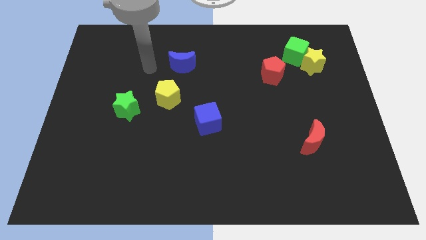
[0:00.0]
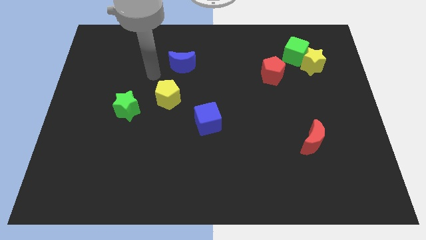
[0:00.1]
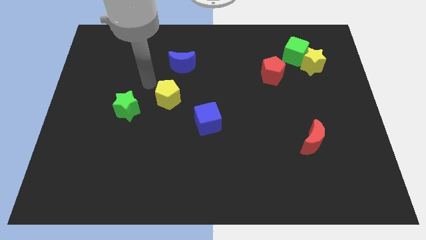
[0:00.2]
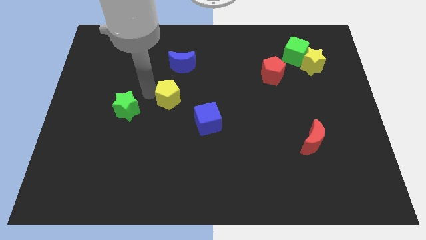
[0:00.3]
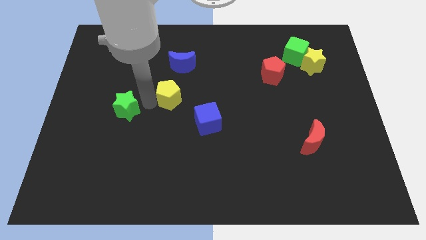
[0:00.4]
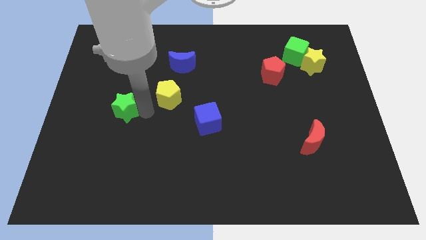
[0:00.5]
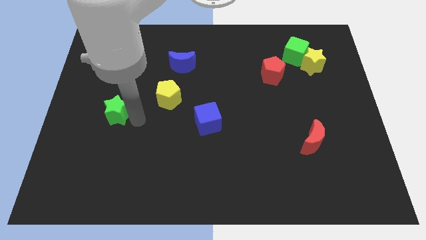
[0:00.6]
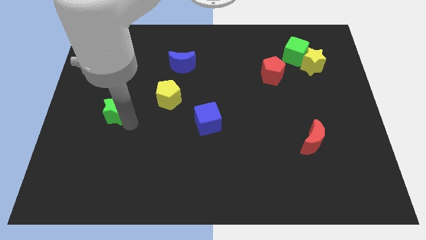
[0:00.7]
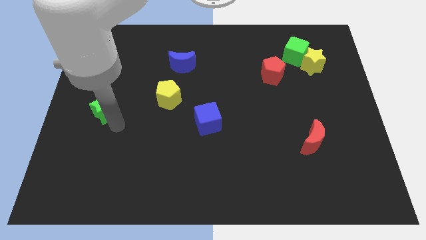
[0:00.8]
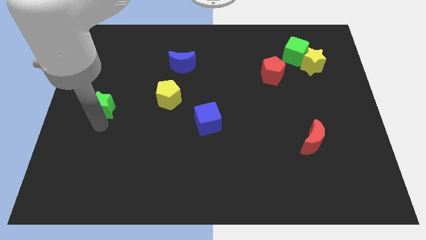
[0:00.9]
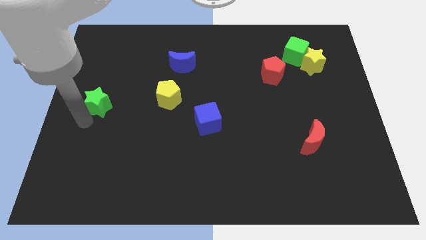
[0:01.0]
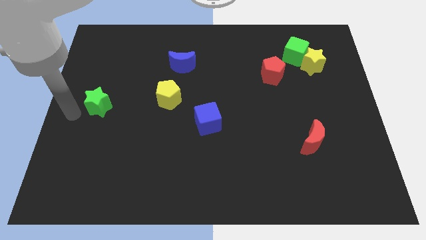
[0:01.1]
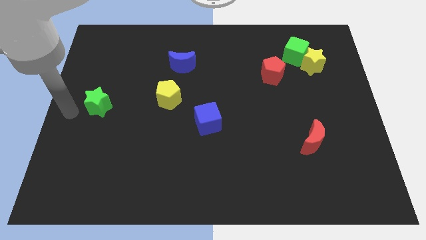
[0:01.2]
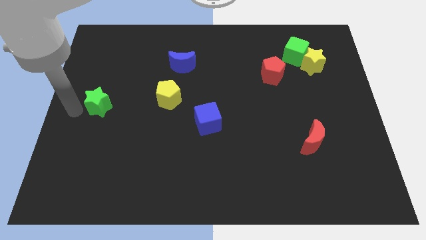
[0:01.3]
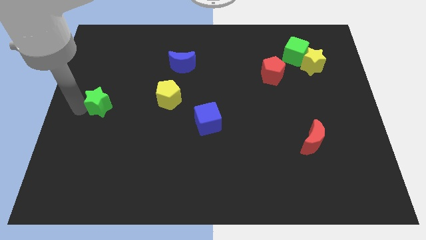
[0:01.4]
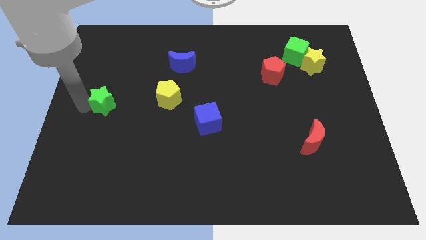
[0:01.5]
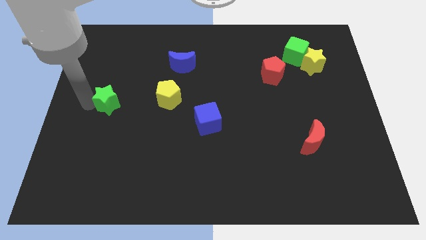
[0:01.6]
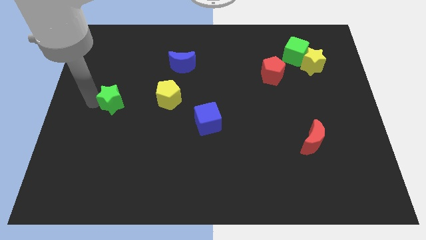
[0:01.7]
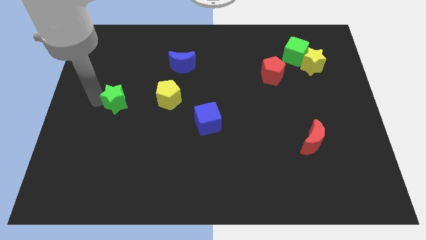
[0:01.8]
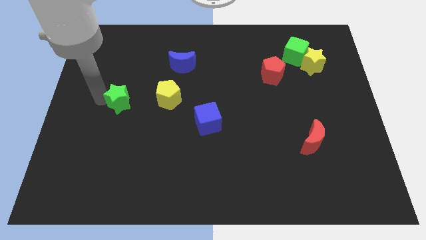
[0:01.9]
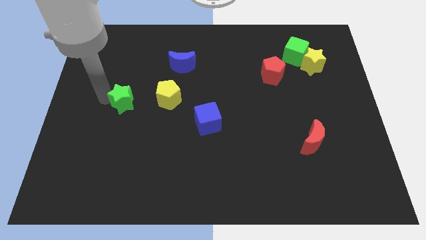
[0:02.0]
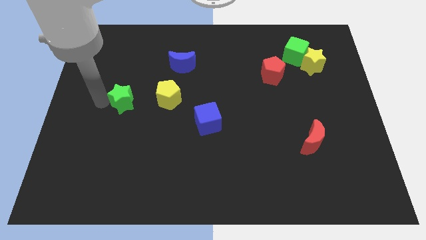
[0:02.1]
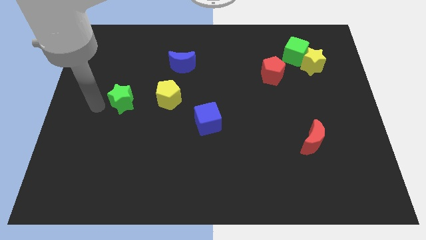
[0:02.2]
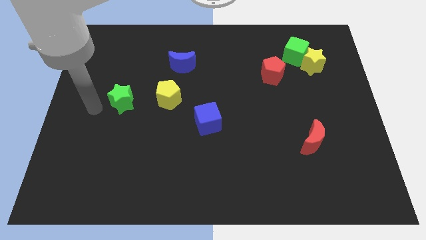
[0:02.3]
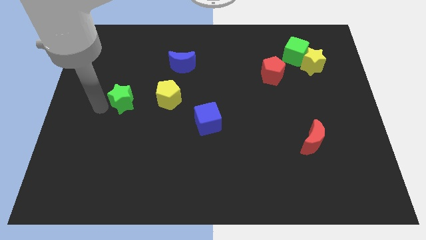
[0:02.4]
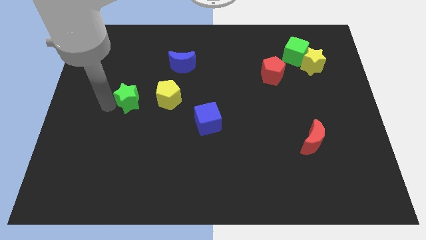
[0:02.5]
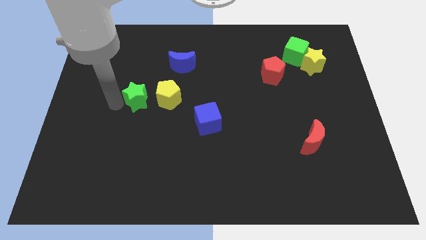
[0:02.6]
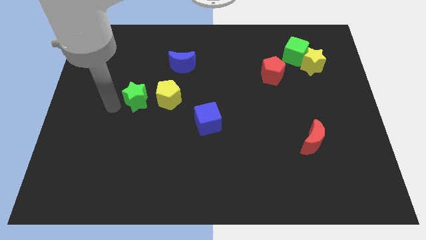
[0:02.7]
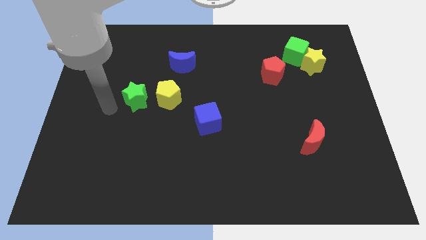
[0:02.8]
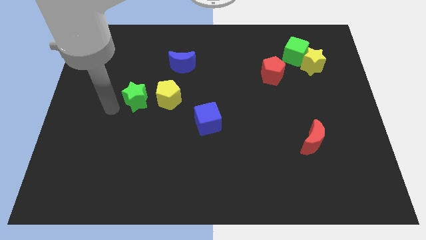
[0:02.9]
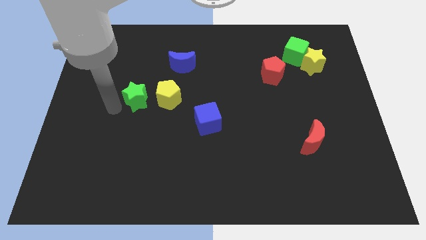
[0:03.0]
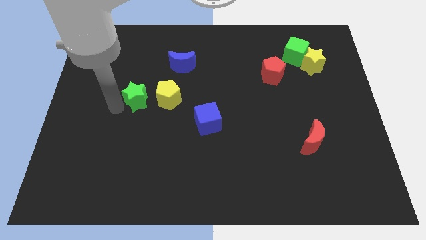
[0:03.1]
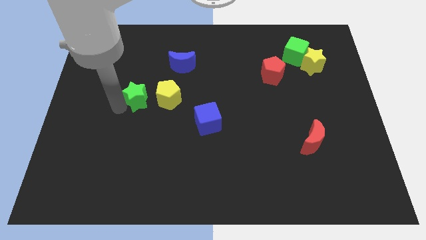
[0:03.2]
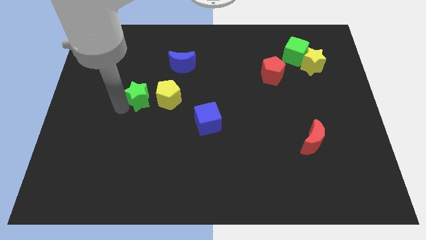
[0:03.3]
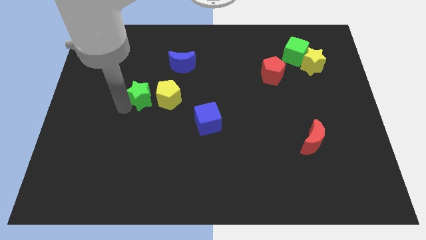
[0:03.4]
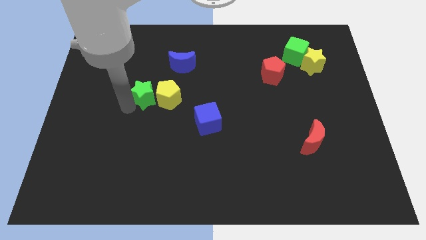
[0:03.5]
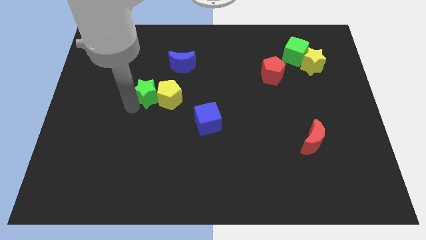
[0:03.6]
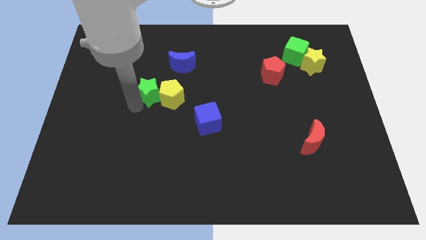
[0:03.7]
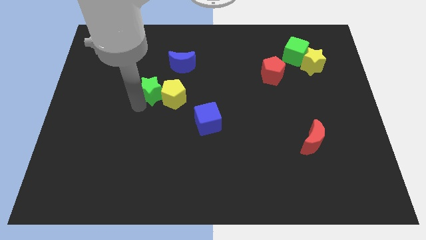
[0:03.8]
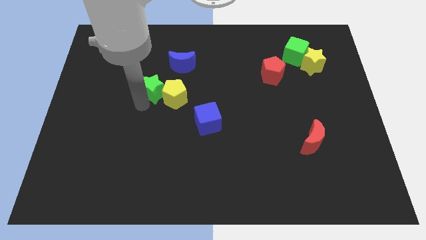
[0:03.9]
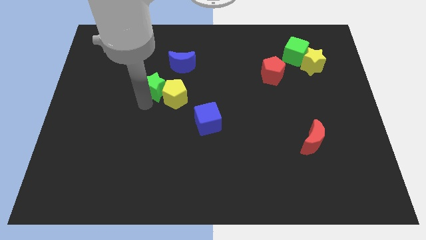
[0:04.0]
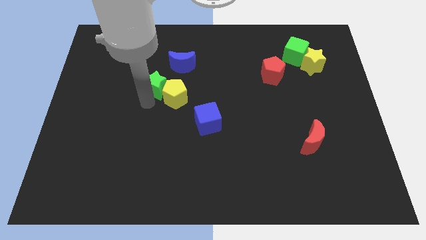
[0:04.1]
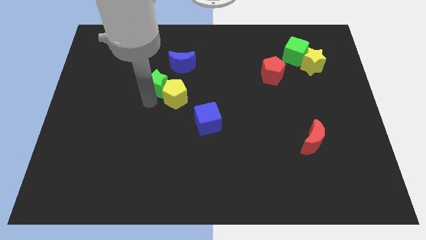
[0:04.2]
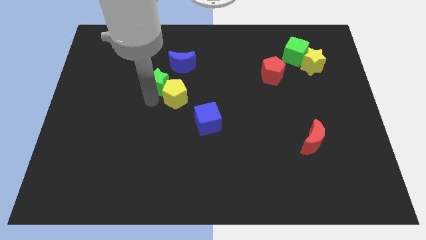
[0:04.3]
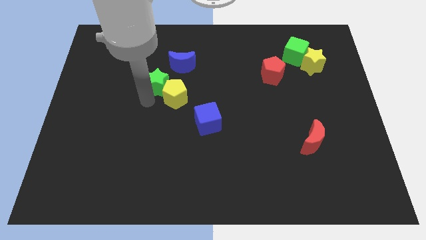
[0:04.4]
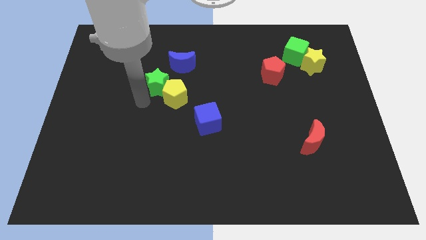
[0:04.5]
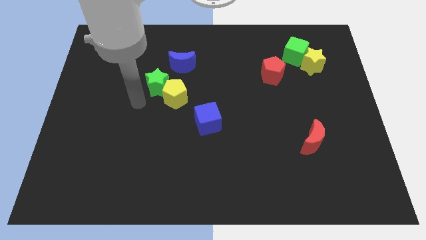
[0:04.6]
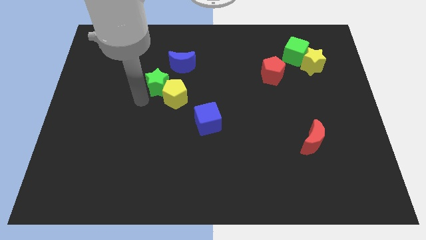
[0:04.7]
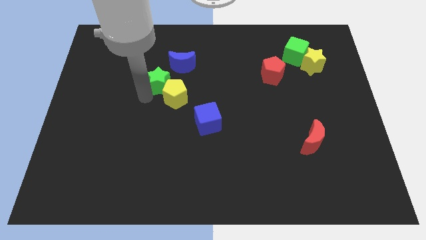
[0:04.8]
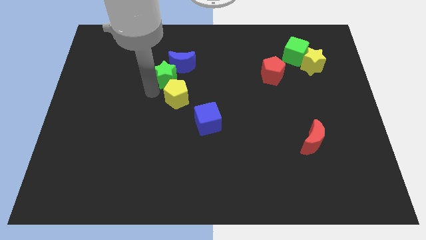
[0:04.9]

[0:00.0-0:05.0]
slide the green star towards the blue moon

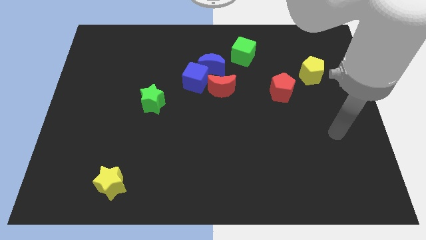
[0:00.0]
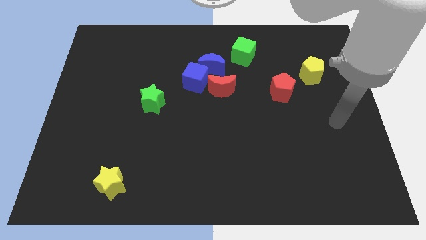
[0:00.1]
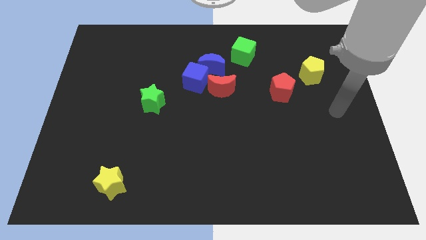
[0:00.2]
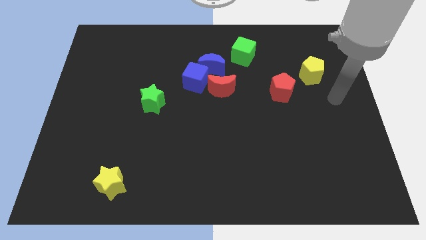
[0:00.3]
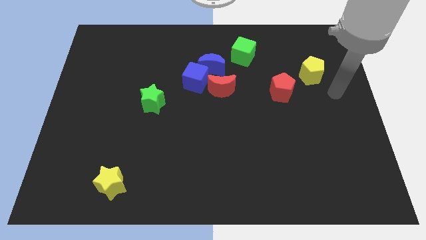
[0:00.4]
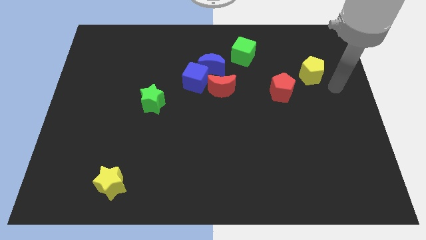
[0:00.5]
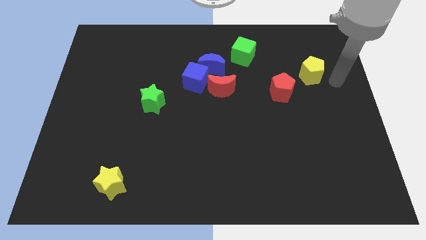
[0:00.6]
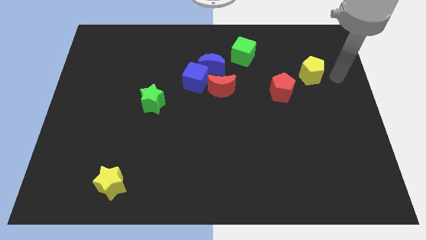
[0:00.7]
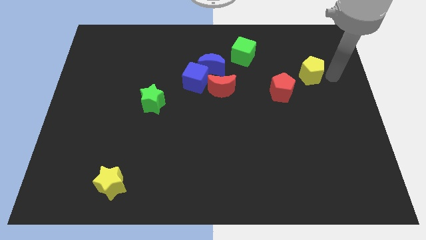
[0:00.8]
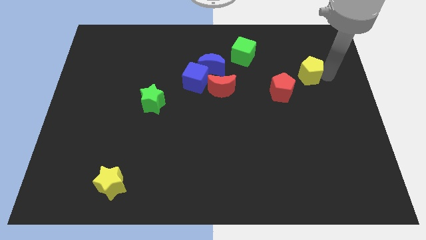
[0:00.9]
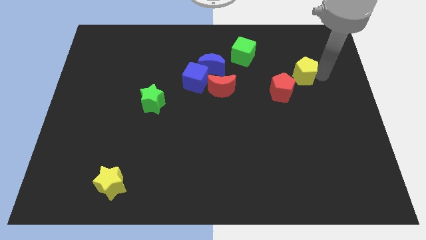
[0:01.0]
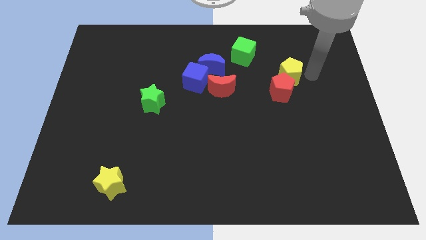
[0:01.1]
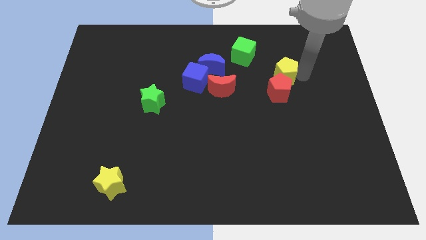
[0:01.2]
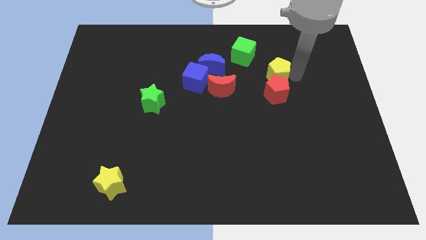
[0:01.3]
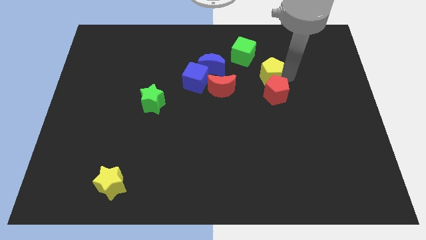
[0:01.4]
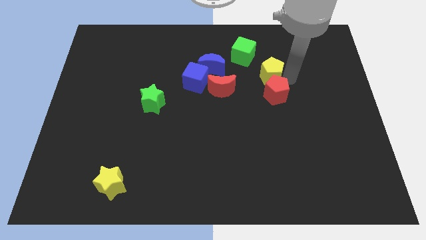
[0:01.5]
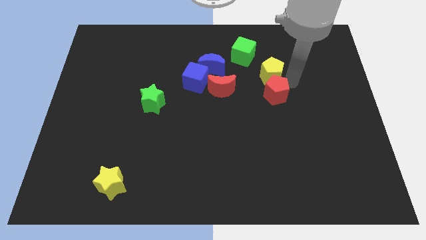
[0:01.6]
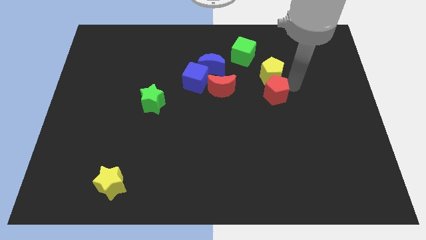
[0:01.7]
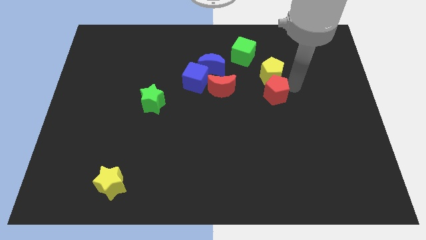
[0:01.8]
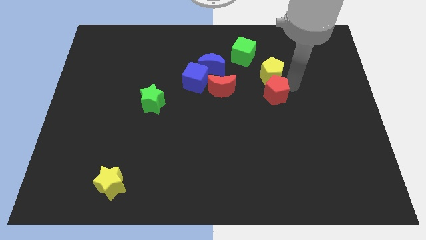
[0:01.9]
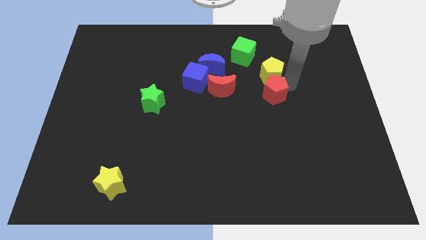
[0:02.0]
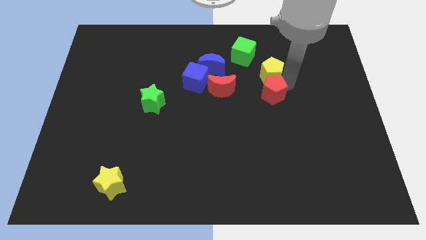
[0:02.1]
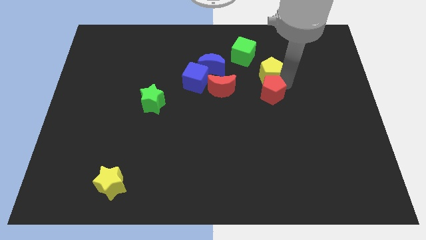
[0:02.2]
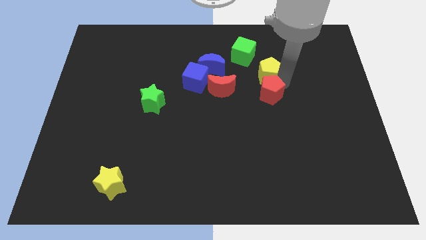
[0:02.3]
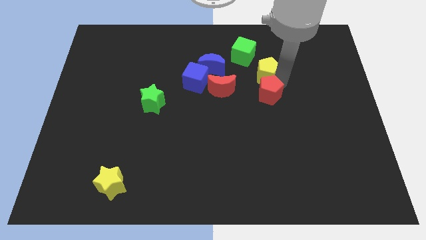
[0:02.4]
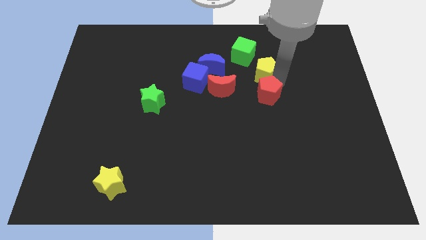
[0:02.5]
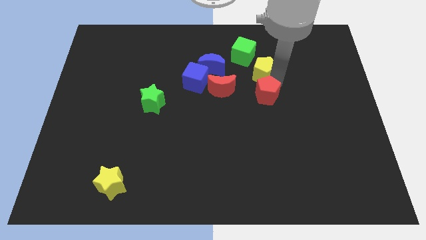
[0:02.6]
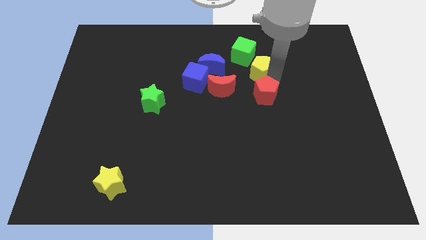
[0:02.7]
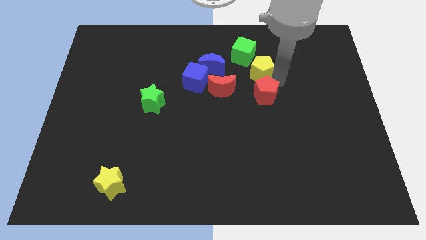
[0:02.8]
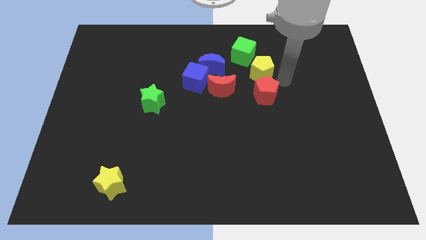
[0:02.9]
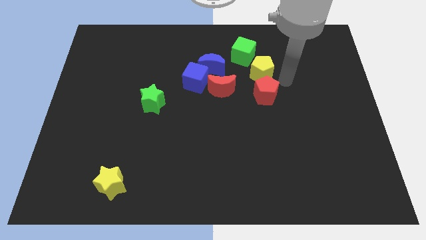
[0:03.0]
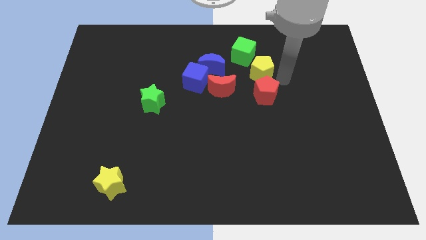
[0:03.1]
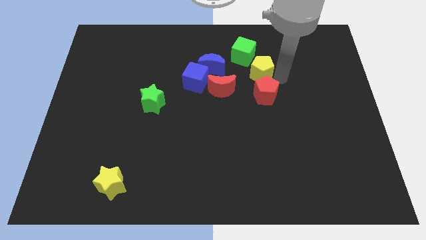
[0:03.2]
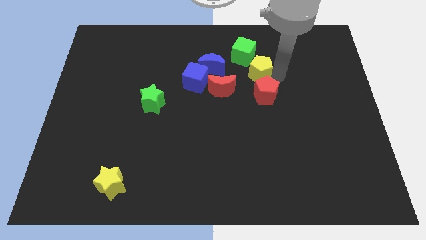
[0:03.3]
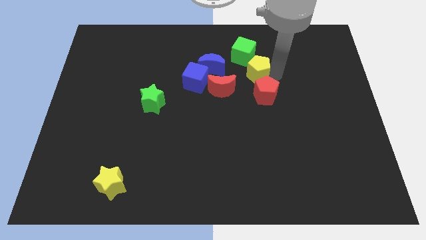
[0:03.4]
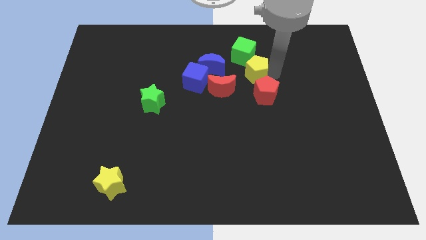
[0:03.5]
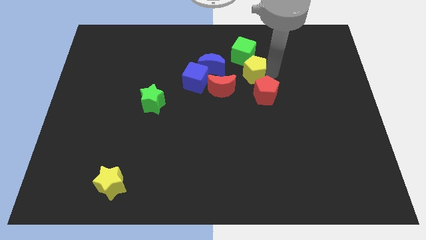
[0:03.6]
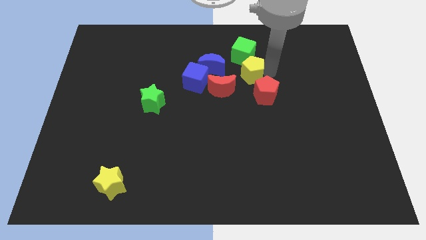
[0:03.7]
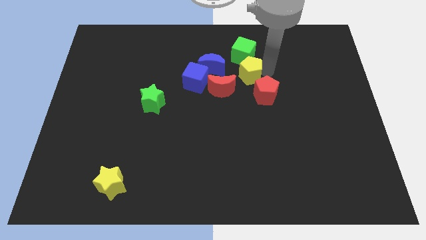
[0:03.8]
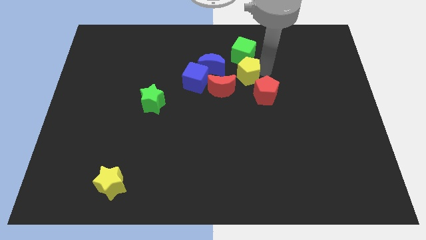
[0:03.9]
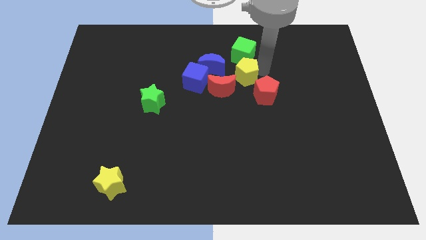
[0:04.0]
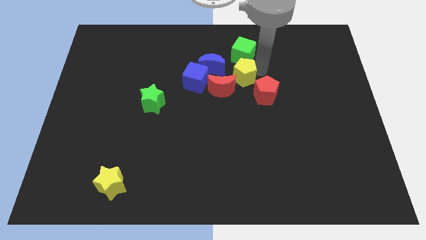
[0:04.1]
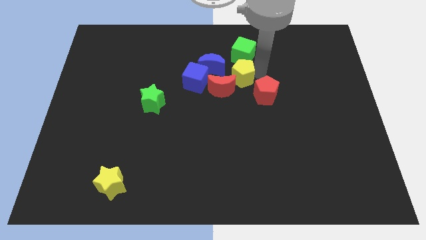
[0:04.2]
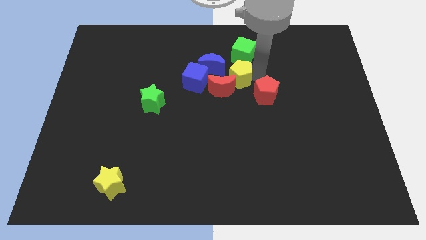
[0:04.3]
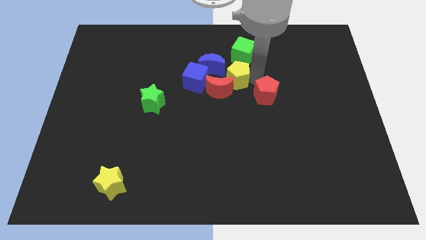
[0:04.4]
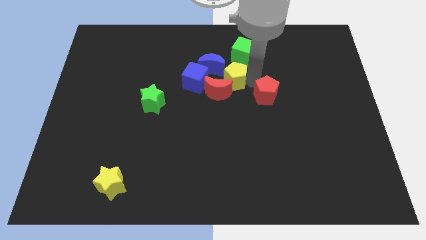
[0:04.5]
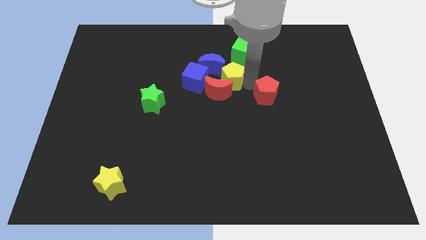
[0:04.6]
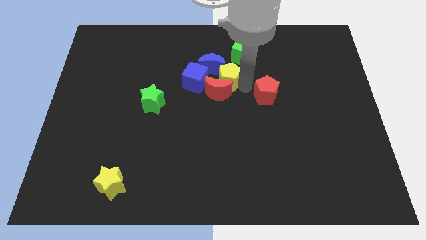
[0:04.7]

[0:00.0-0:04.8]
put the yellow pentagon close to the blue moon
